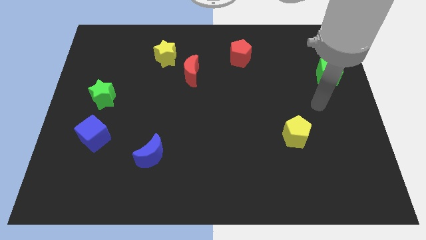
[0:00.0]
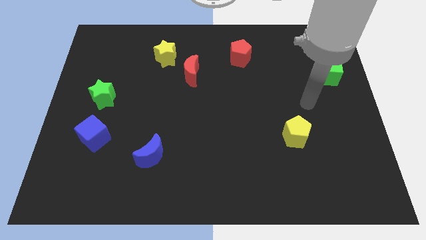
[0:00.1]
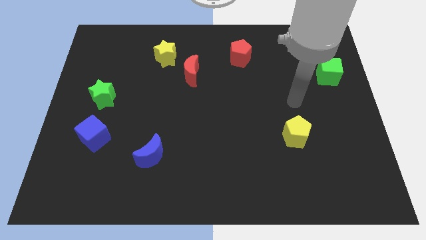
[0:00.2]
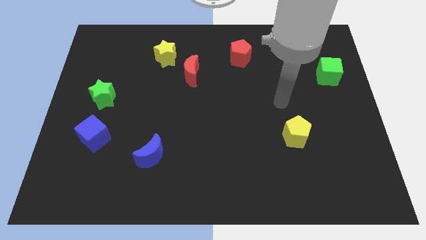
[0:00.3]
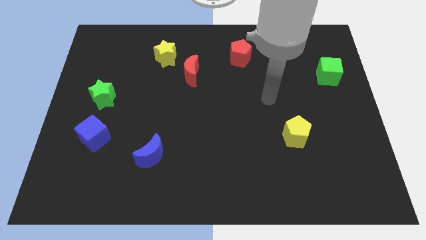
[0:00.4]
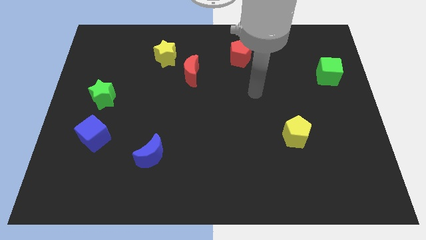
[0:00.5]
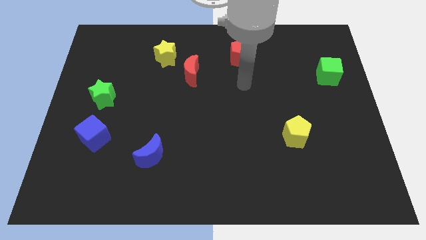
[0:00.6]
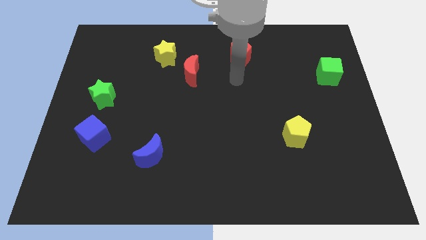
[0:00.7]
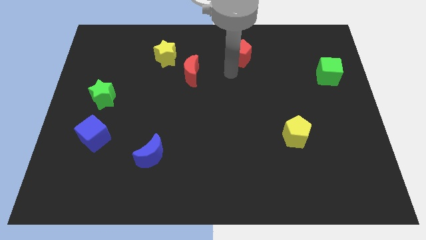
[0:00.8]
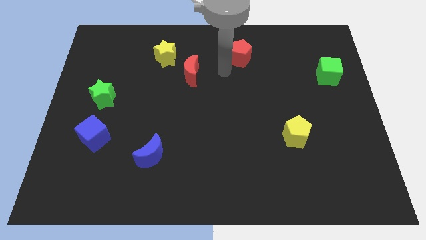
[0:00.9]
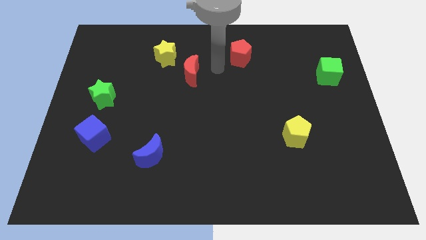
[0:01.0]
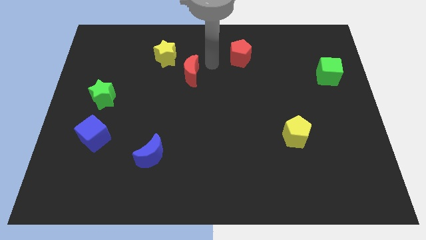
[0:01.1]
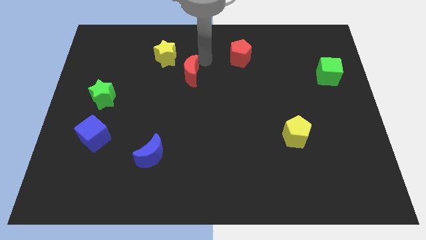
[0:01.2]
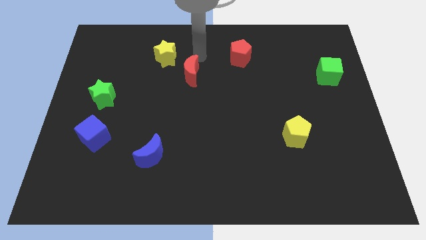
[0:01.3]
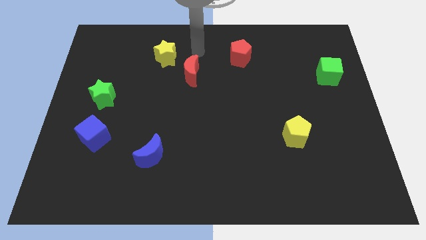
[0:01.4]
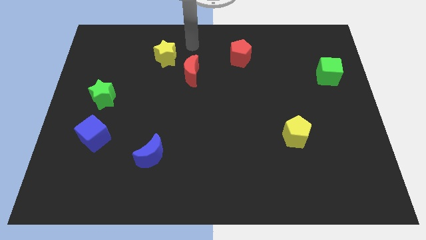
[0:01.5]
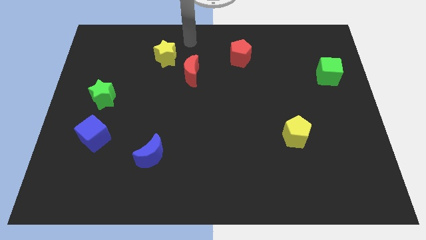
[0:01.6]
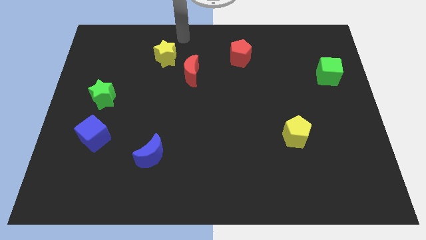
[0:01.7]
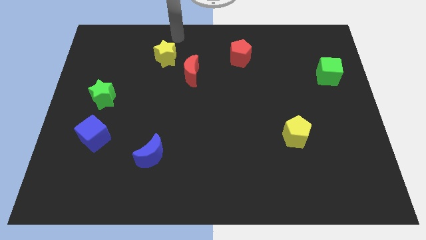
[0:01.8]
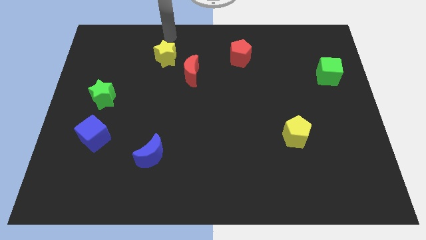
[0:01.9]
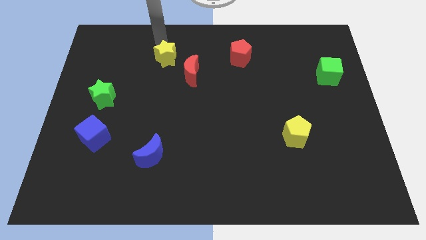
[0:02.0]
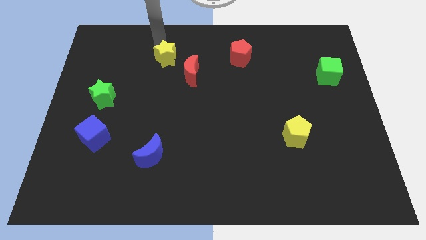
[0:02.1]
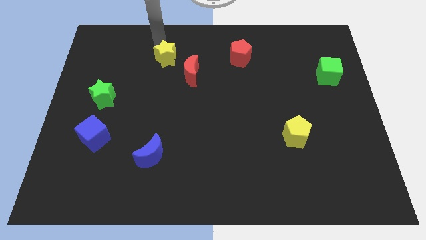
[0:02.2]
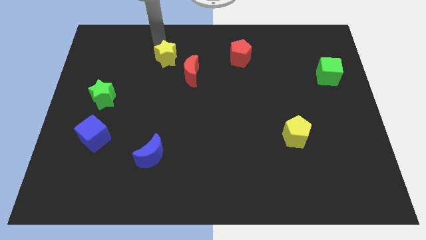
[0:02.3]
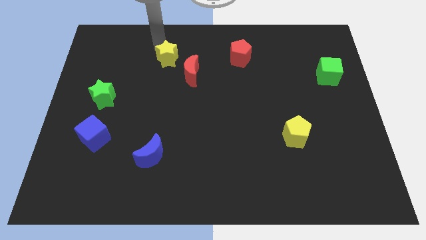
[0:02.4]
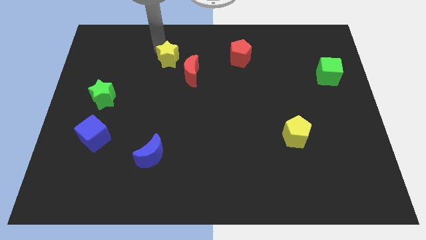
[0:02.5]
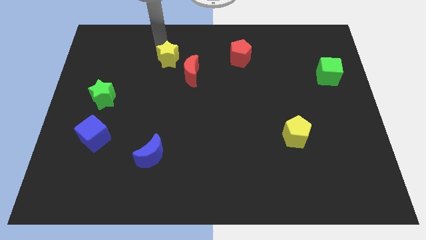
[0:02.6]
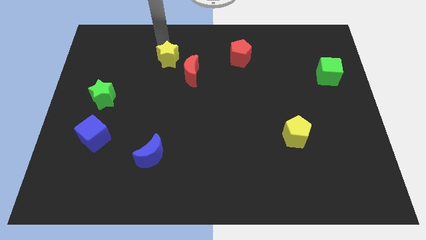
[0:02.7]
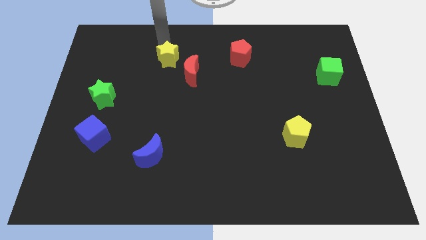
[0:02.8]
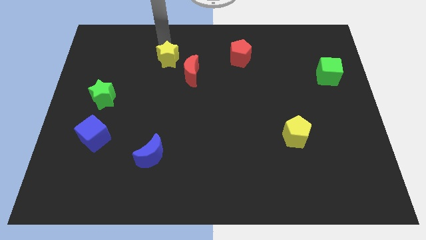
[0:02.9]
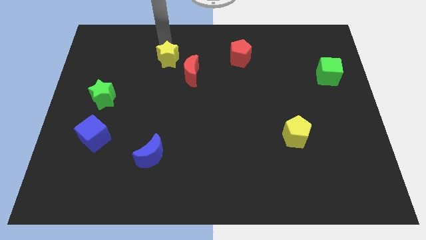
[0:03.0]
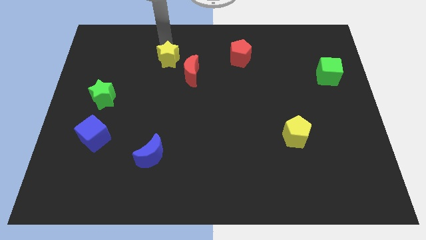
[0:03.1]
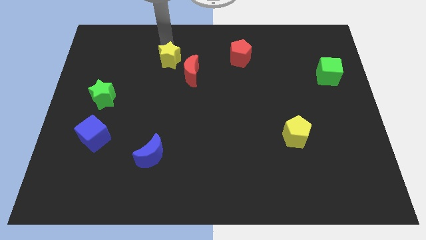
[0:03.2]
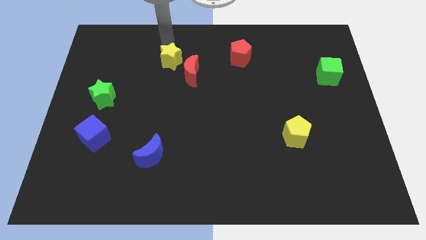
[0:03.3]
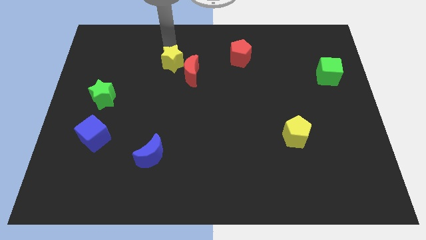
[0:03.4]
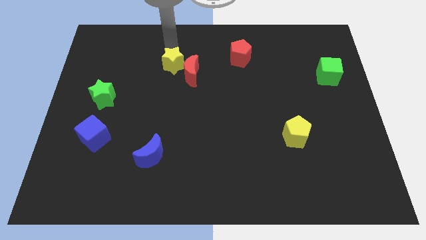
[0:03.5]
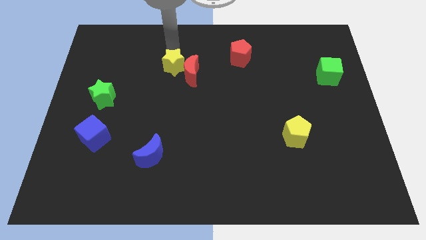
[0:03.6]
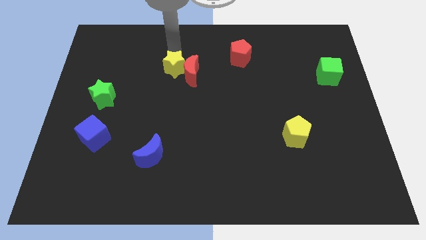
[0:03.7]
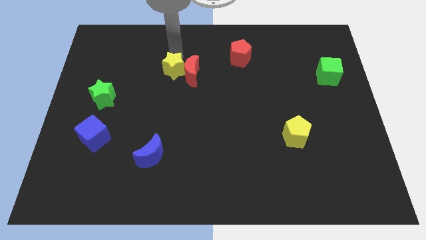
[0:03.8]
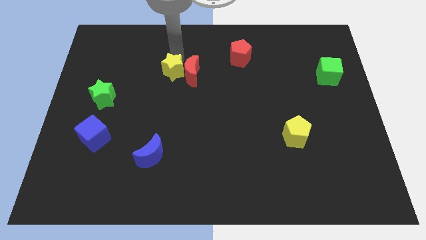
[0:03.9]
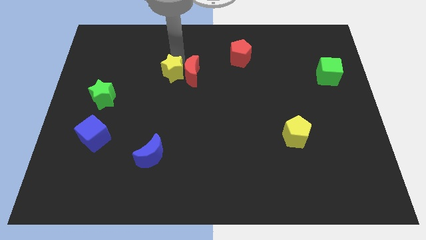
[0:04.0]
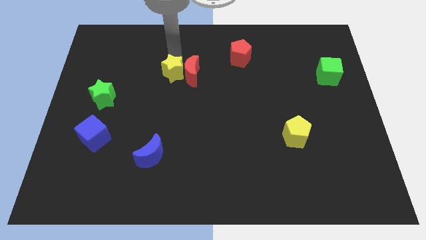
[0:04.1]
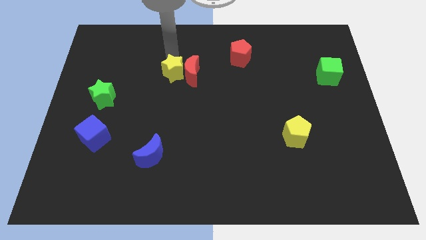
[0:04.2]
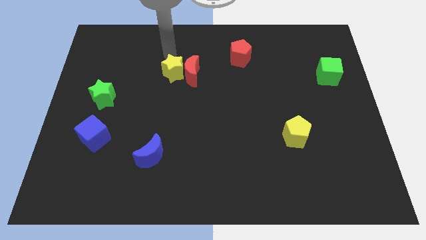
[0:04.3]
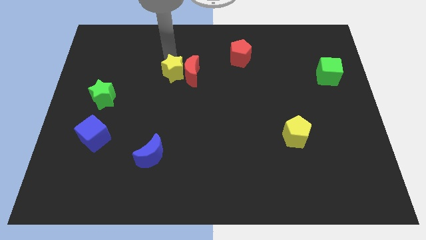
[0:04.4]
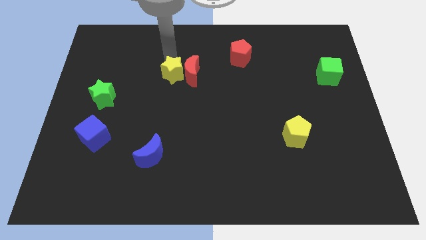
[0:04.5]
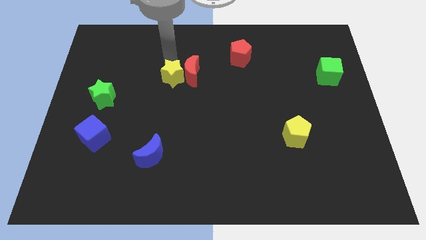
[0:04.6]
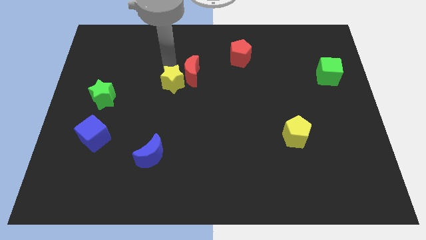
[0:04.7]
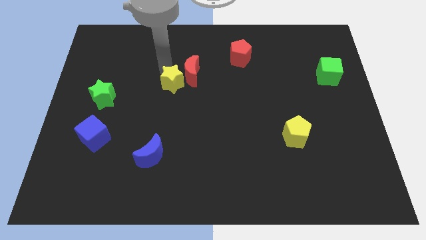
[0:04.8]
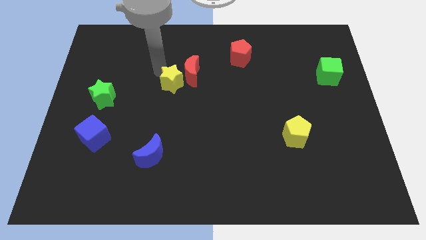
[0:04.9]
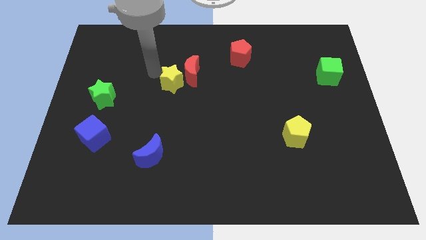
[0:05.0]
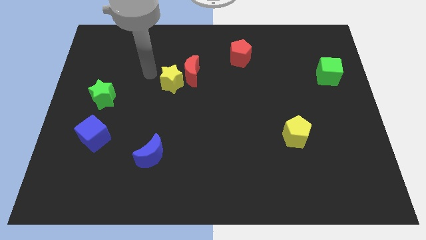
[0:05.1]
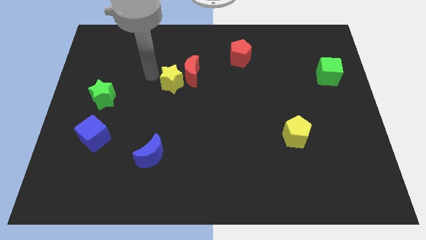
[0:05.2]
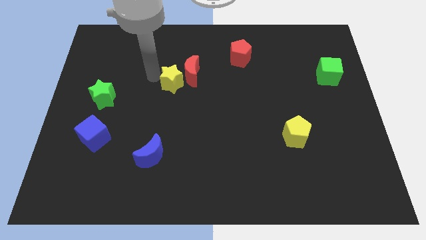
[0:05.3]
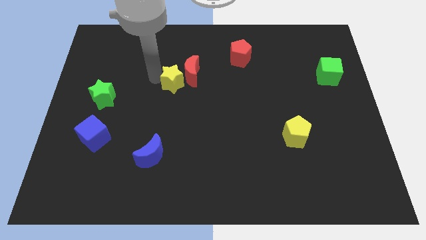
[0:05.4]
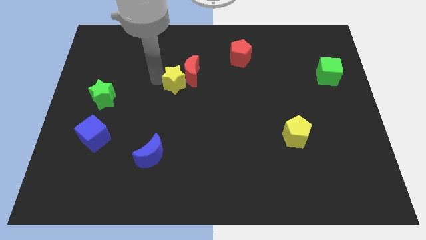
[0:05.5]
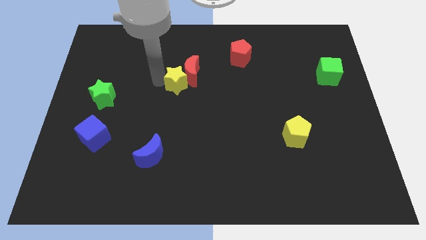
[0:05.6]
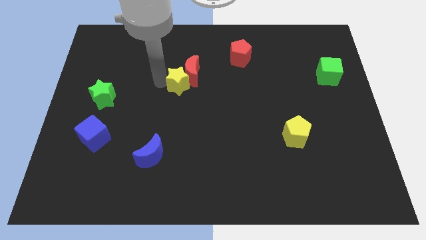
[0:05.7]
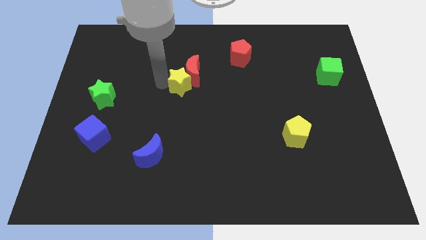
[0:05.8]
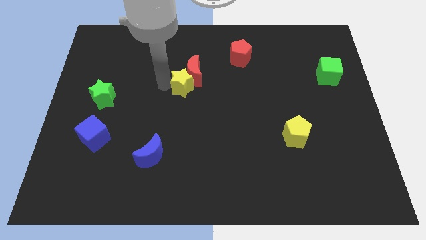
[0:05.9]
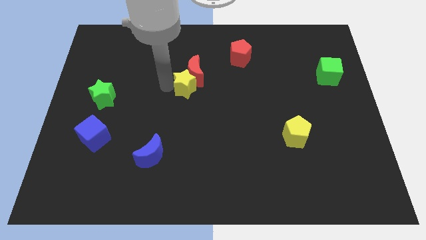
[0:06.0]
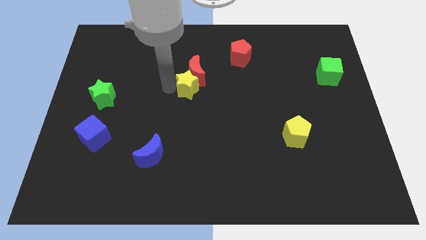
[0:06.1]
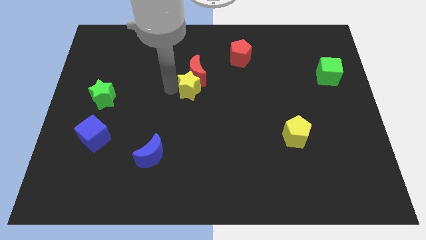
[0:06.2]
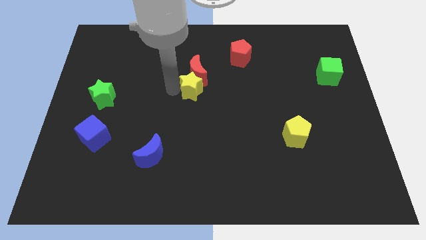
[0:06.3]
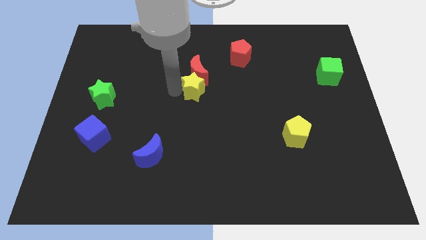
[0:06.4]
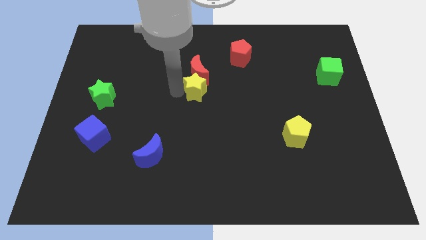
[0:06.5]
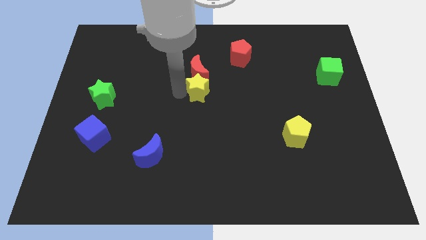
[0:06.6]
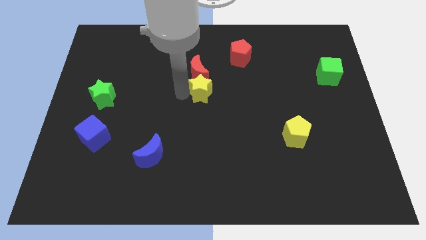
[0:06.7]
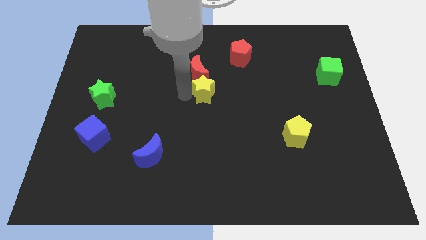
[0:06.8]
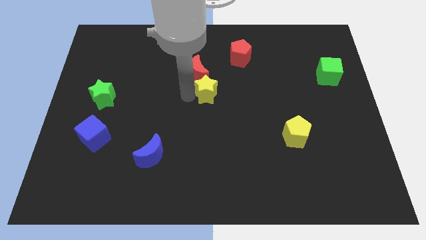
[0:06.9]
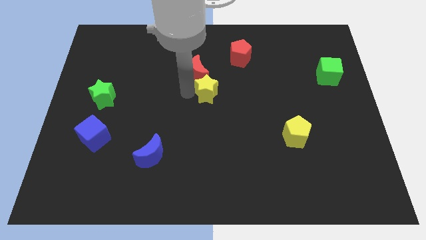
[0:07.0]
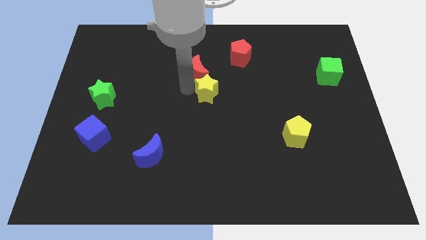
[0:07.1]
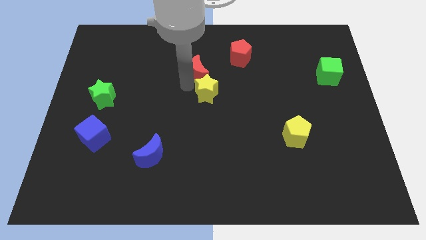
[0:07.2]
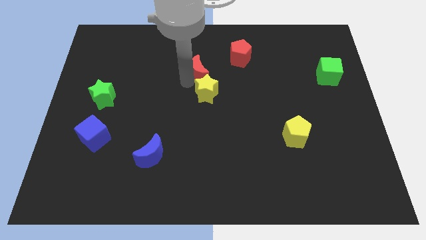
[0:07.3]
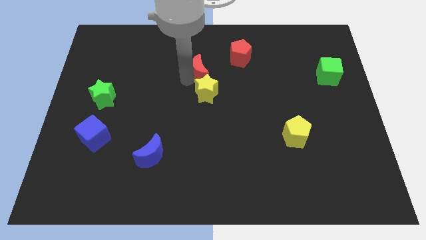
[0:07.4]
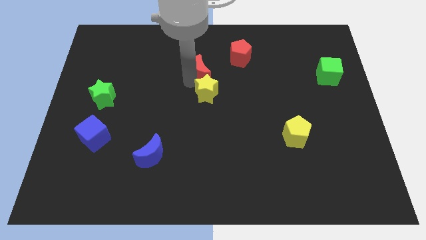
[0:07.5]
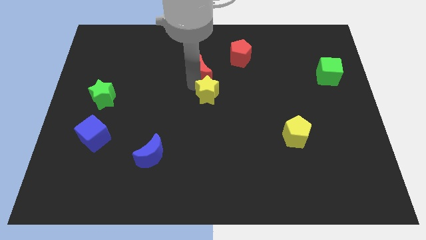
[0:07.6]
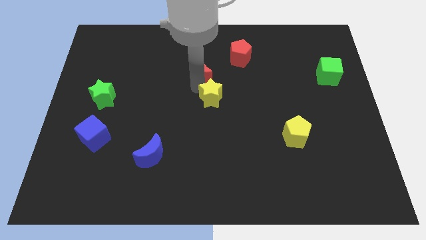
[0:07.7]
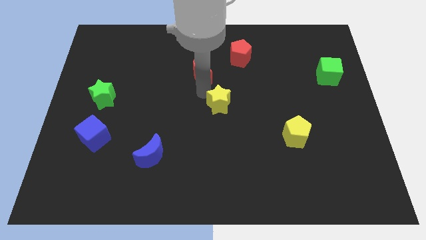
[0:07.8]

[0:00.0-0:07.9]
push the yellow star downwards and then right
